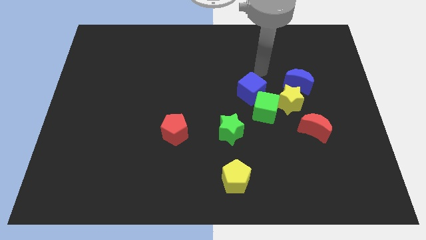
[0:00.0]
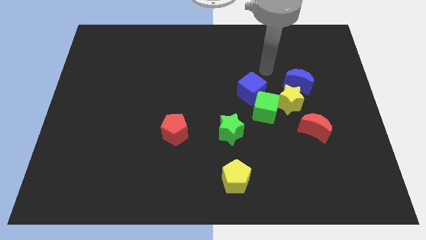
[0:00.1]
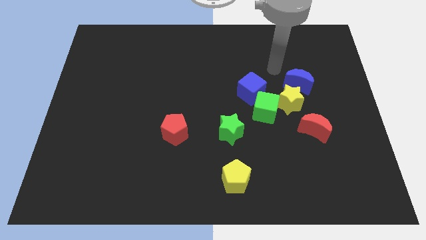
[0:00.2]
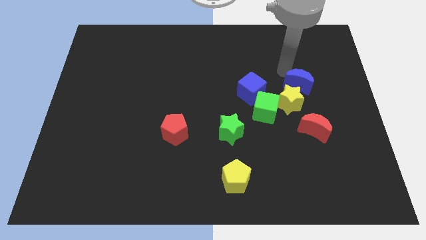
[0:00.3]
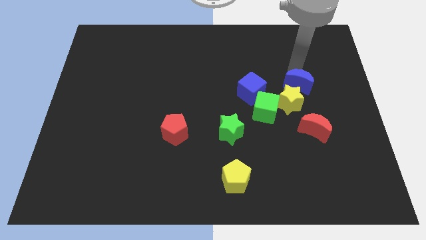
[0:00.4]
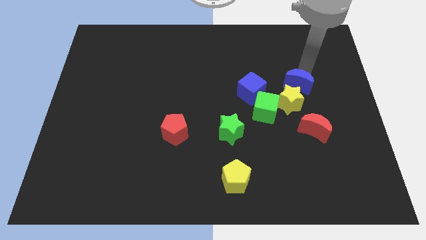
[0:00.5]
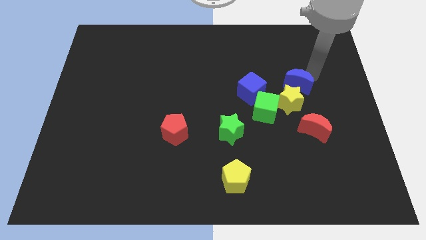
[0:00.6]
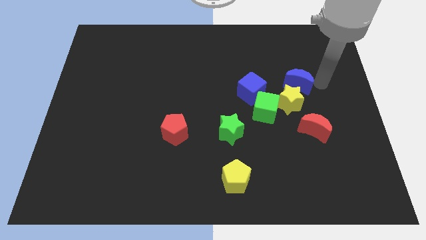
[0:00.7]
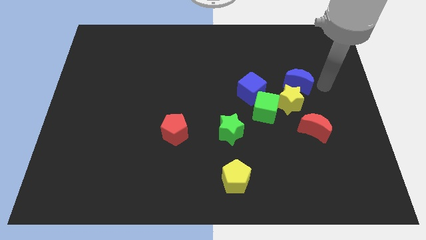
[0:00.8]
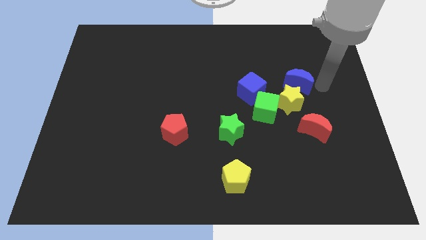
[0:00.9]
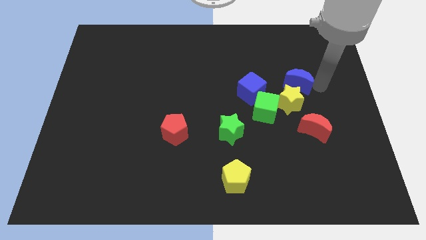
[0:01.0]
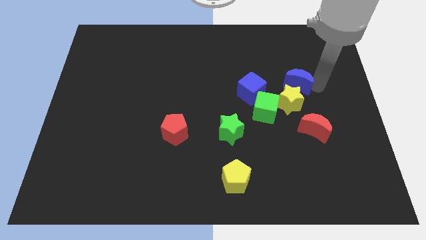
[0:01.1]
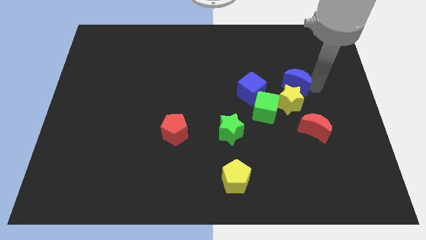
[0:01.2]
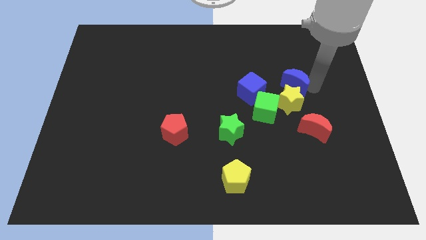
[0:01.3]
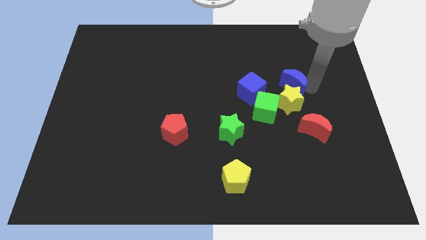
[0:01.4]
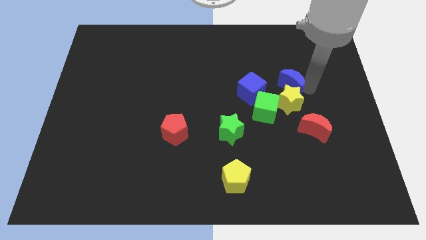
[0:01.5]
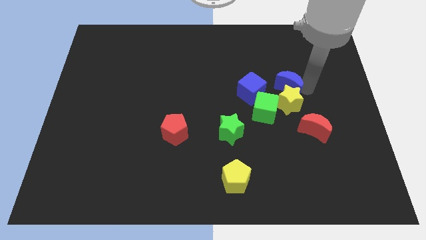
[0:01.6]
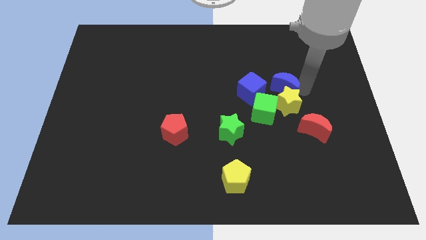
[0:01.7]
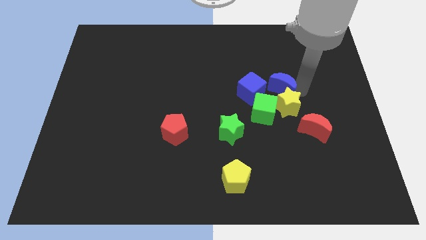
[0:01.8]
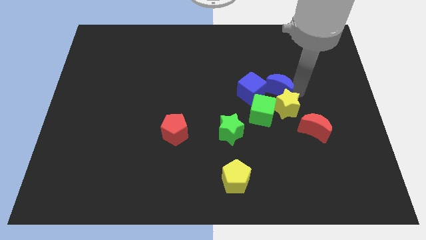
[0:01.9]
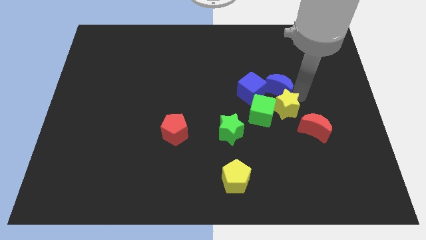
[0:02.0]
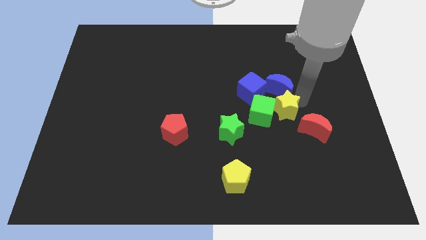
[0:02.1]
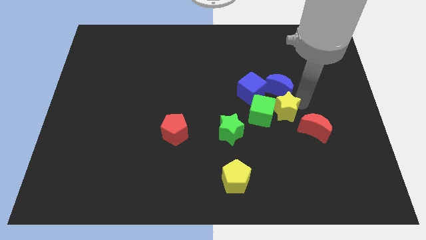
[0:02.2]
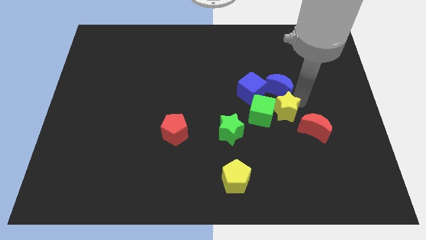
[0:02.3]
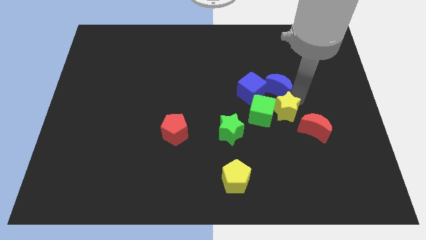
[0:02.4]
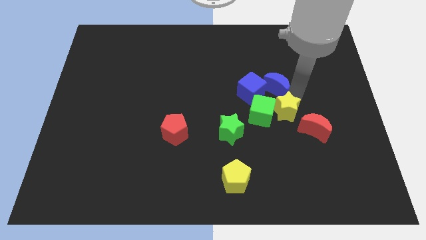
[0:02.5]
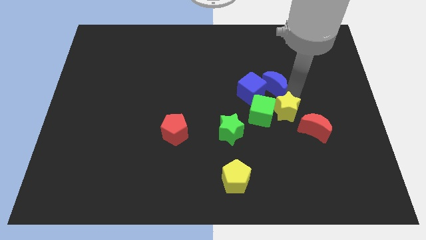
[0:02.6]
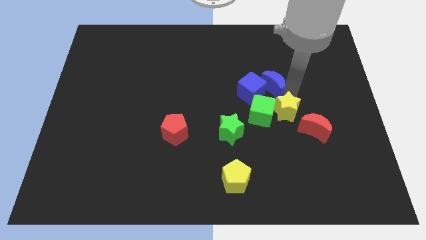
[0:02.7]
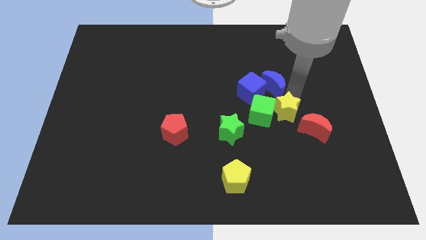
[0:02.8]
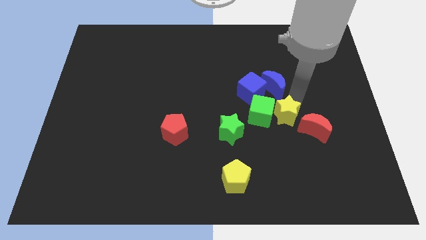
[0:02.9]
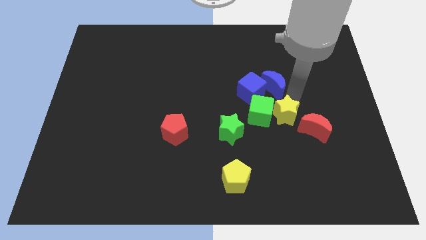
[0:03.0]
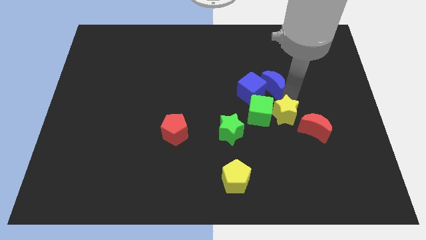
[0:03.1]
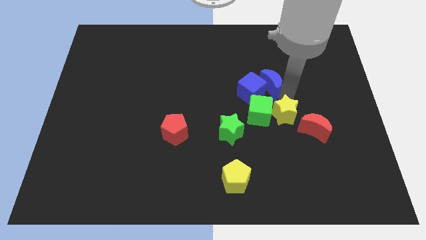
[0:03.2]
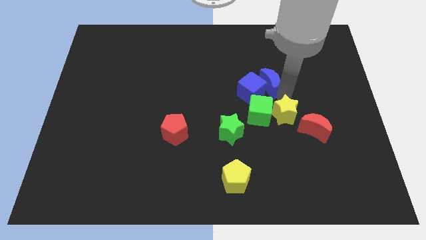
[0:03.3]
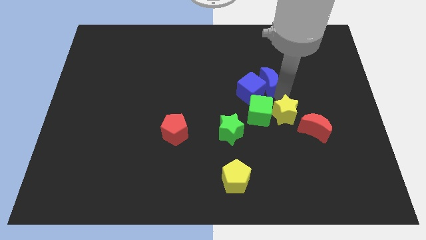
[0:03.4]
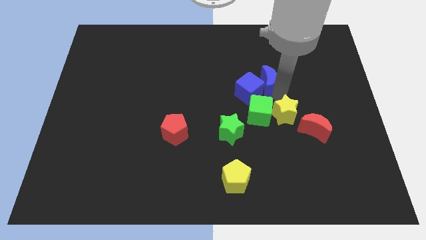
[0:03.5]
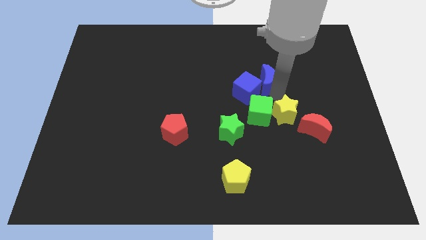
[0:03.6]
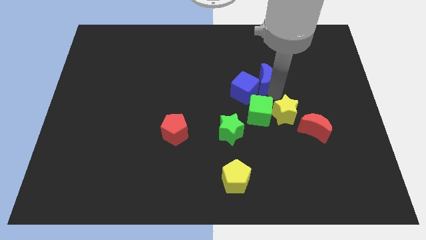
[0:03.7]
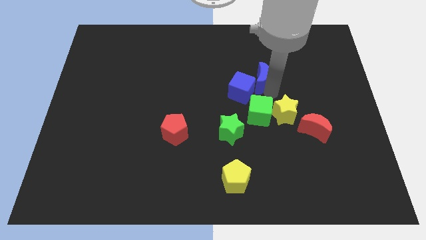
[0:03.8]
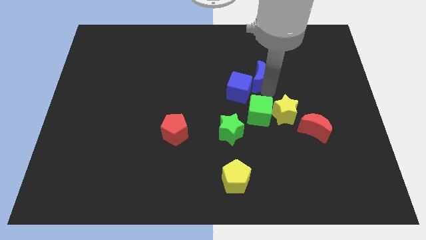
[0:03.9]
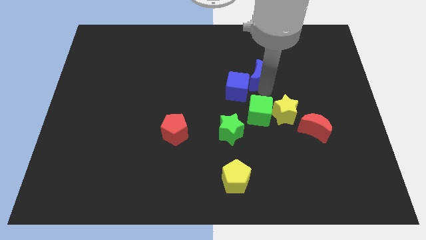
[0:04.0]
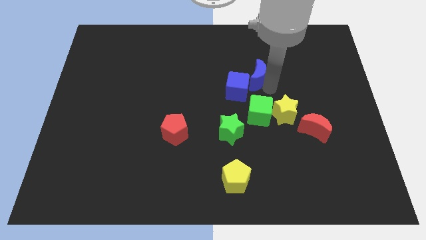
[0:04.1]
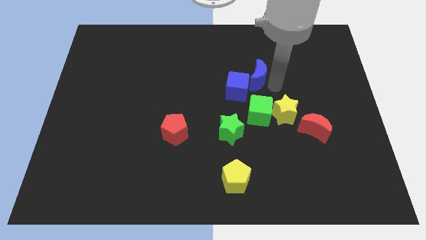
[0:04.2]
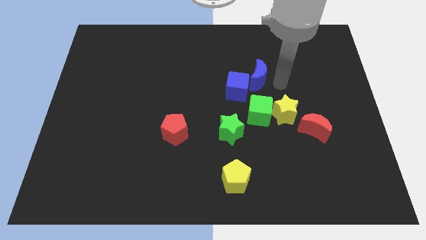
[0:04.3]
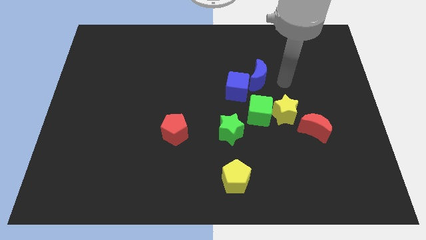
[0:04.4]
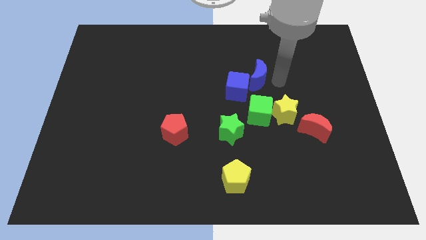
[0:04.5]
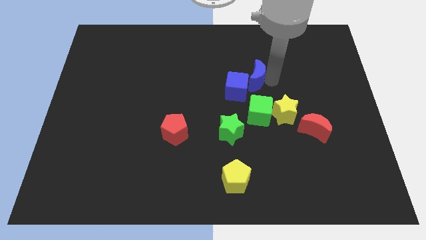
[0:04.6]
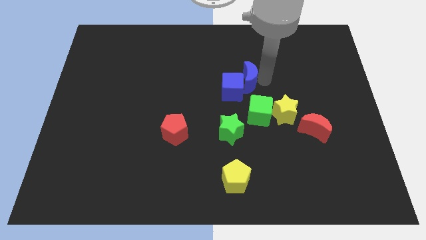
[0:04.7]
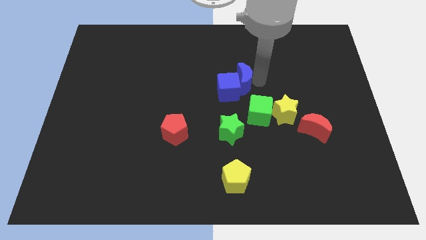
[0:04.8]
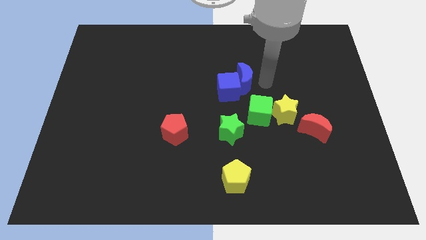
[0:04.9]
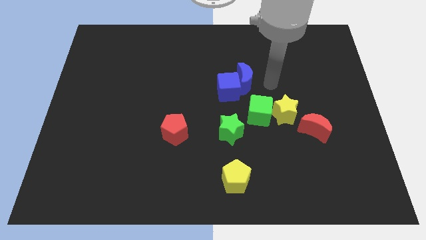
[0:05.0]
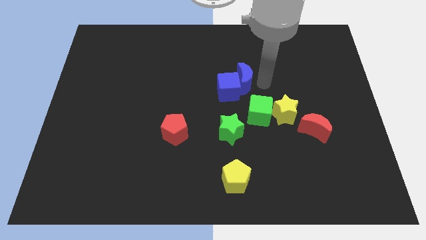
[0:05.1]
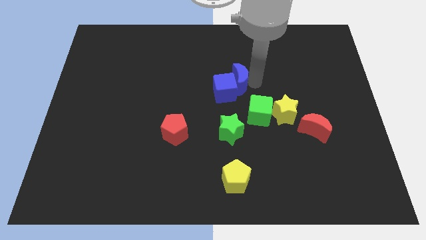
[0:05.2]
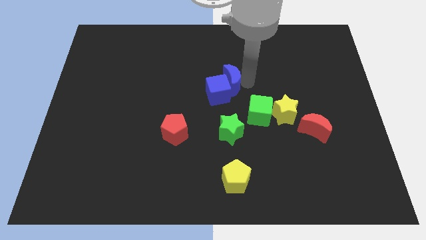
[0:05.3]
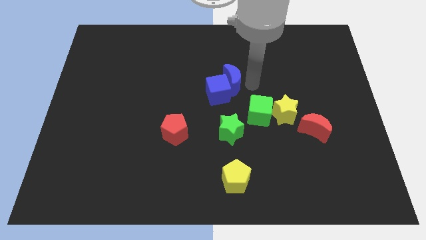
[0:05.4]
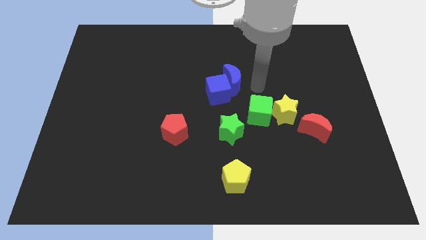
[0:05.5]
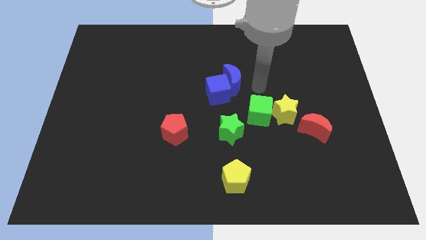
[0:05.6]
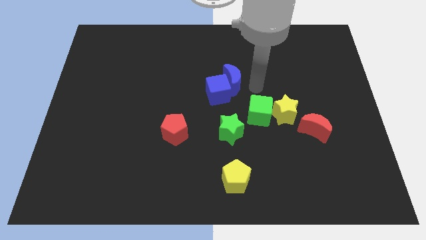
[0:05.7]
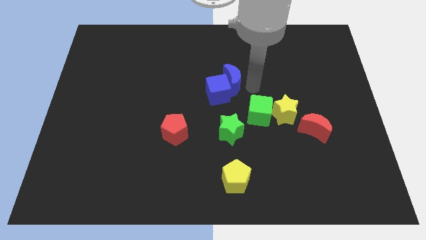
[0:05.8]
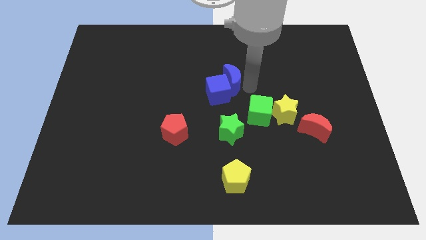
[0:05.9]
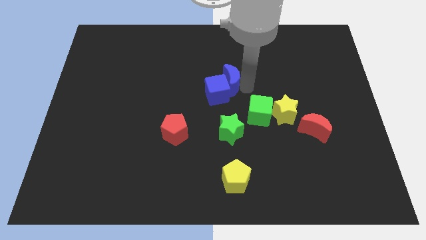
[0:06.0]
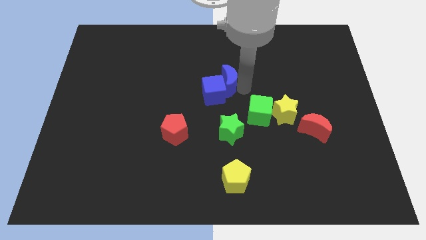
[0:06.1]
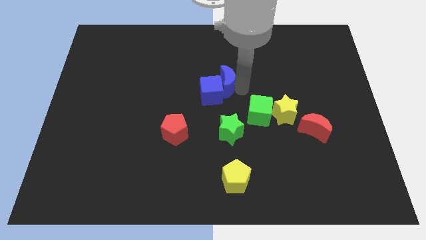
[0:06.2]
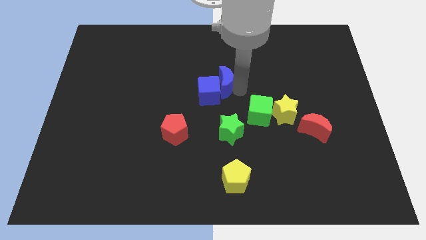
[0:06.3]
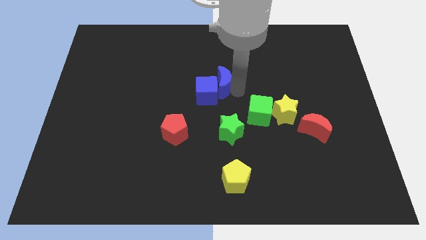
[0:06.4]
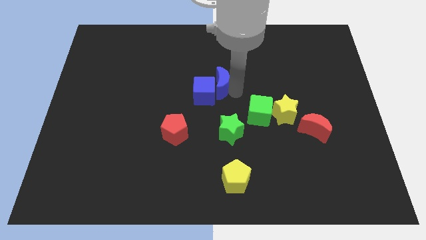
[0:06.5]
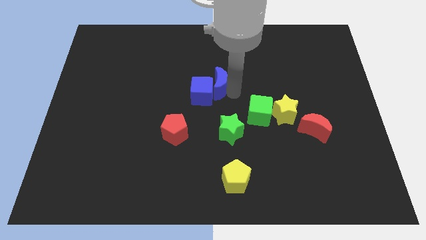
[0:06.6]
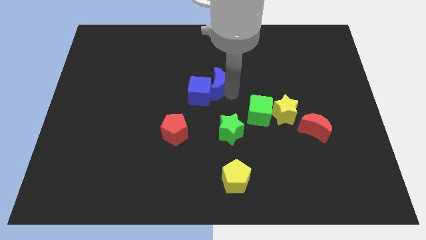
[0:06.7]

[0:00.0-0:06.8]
move the blue moon to the left

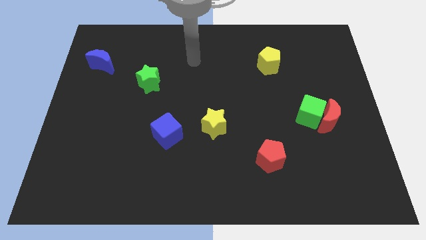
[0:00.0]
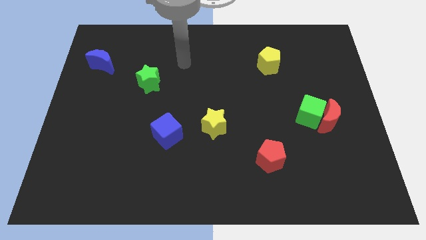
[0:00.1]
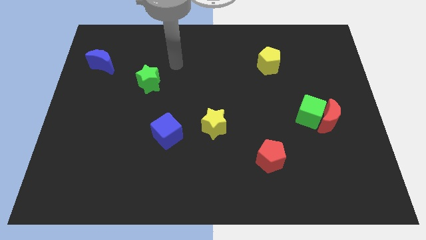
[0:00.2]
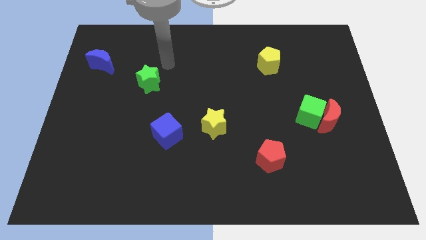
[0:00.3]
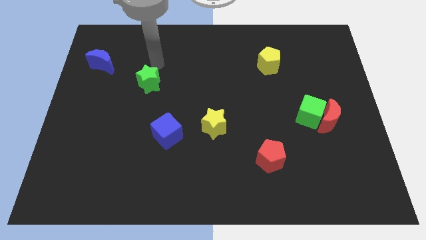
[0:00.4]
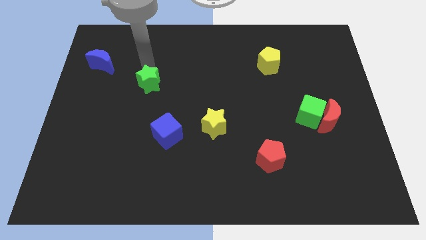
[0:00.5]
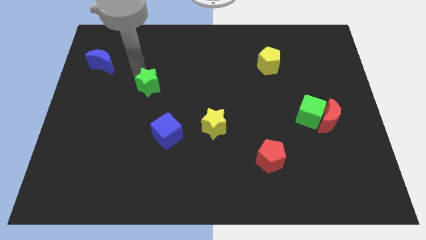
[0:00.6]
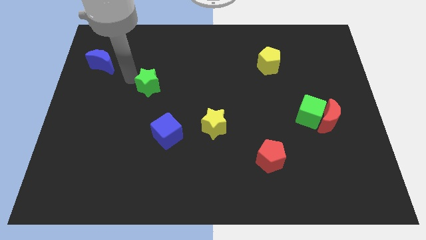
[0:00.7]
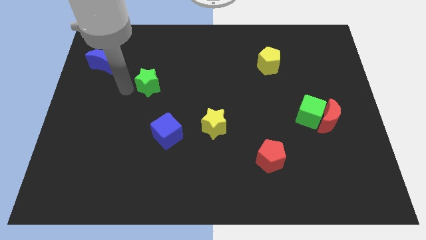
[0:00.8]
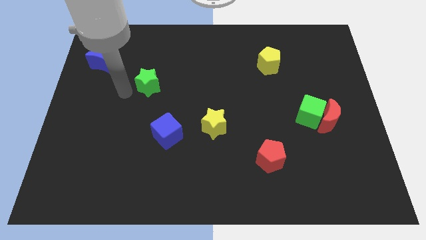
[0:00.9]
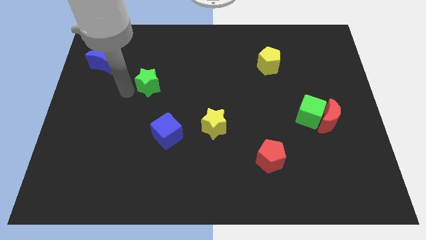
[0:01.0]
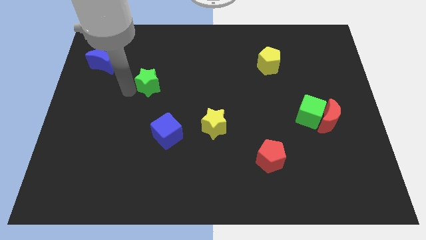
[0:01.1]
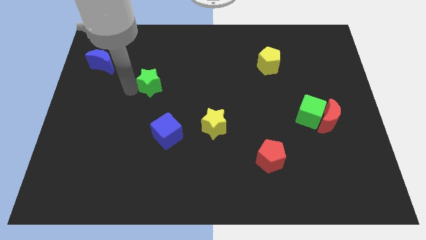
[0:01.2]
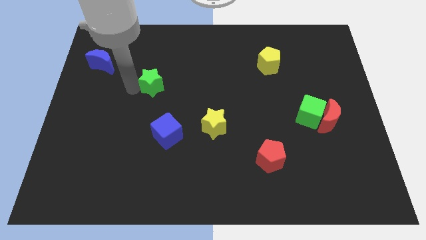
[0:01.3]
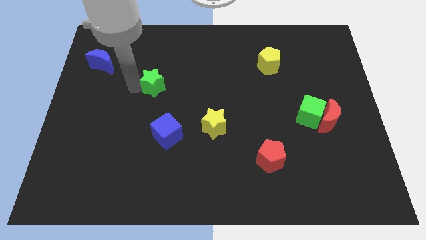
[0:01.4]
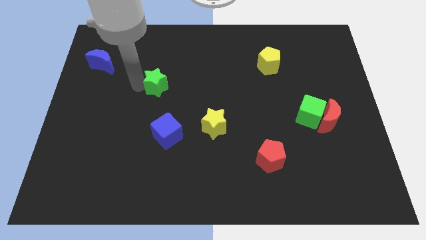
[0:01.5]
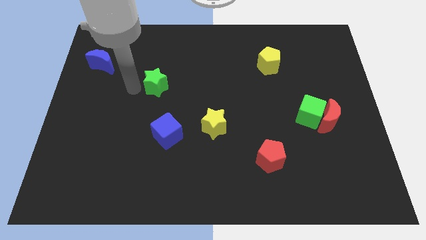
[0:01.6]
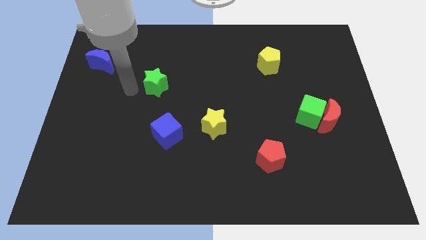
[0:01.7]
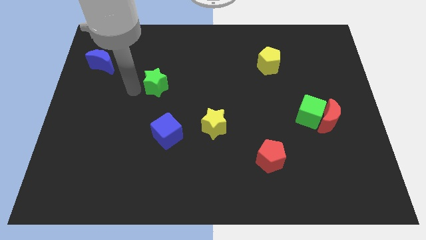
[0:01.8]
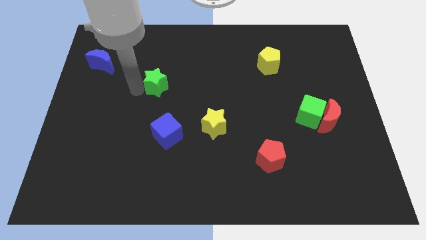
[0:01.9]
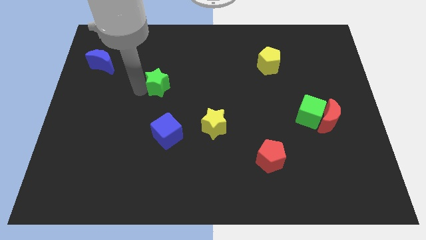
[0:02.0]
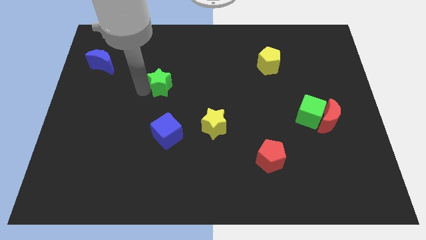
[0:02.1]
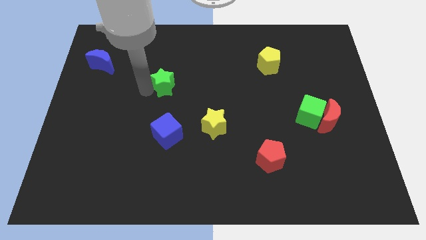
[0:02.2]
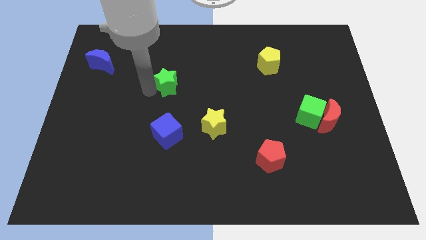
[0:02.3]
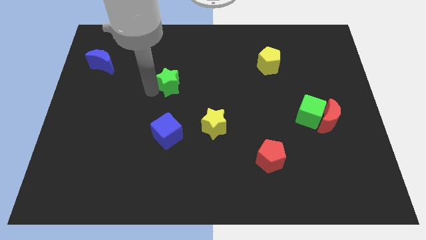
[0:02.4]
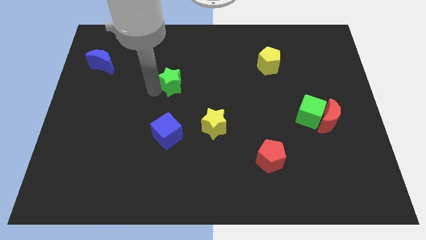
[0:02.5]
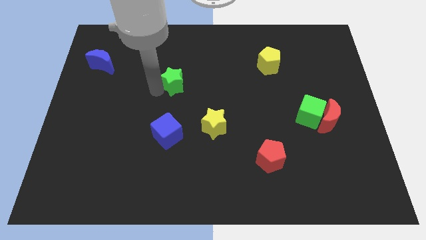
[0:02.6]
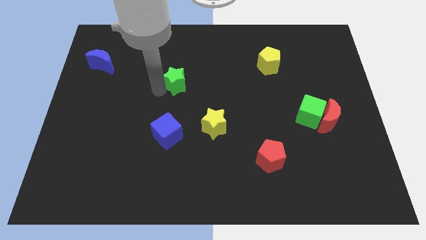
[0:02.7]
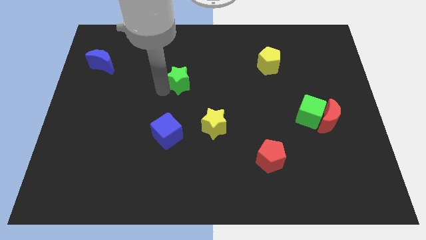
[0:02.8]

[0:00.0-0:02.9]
move the green star to the right a little
